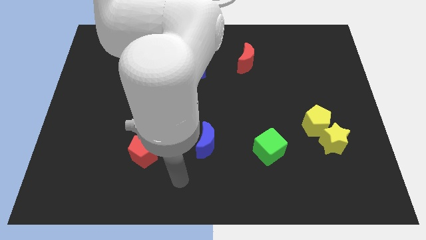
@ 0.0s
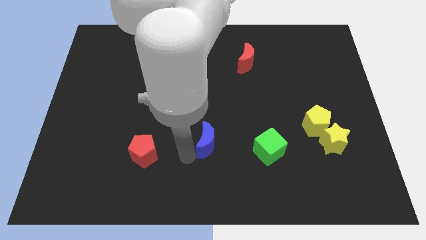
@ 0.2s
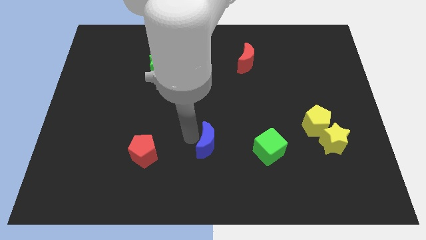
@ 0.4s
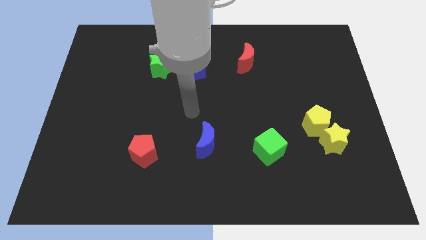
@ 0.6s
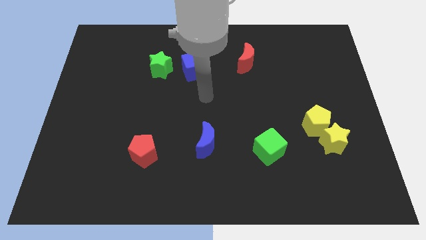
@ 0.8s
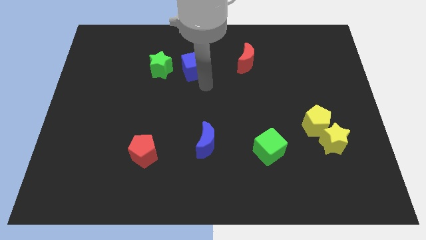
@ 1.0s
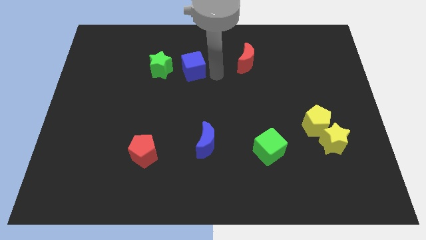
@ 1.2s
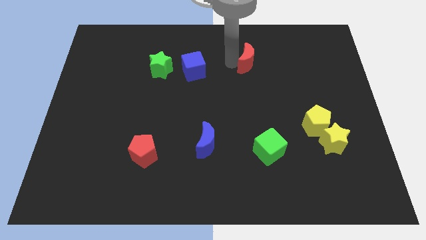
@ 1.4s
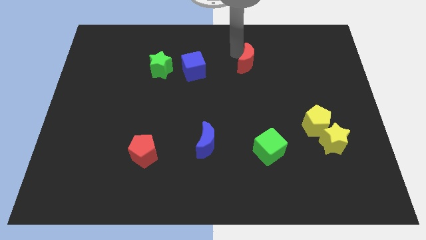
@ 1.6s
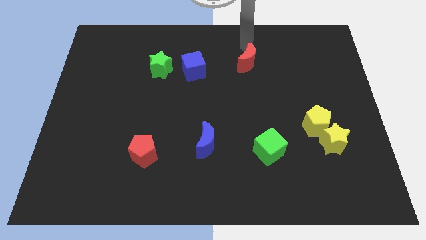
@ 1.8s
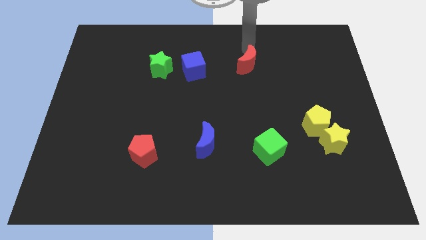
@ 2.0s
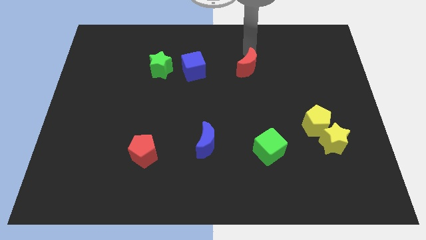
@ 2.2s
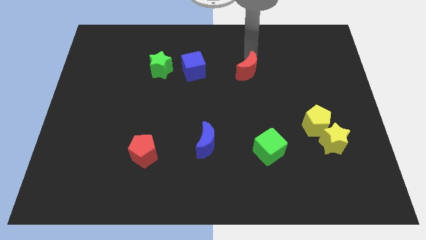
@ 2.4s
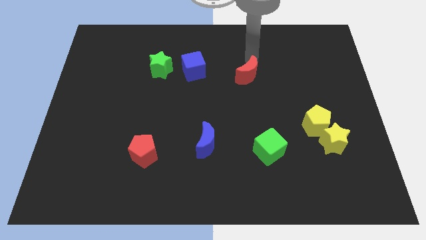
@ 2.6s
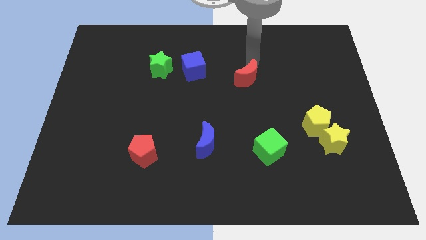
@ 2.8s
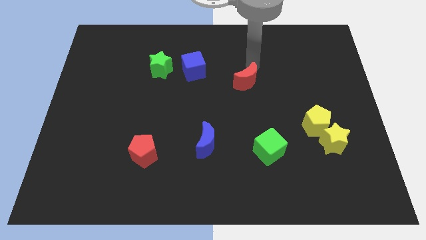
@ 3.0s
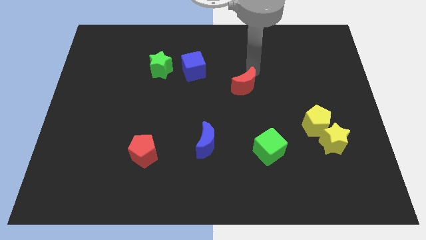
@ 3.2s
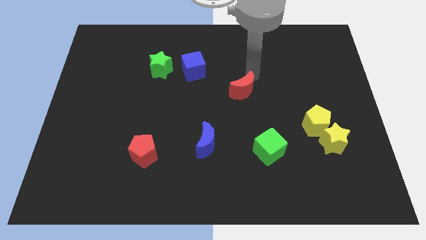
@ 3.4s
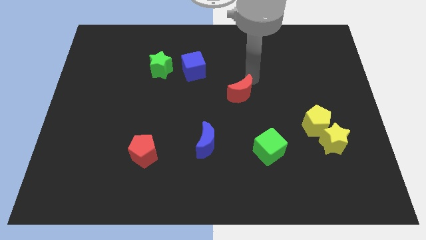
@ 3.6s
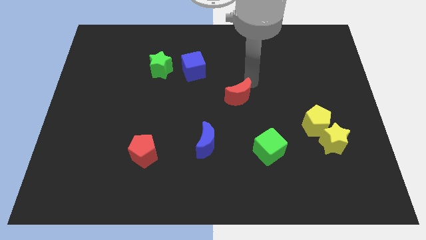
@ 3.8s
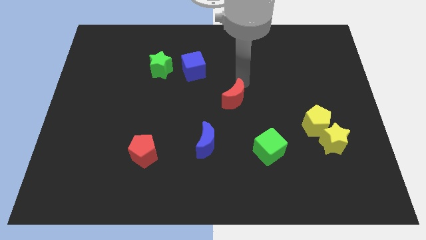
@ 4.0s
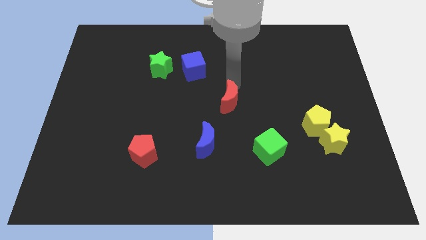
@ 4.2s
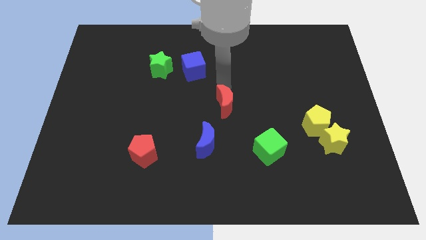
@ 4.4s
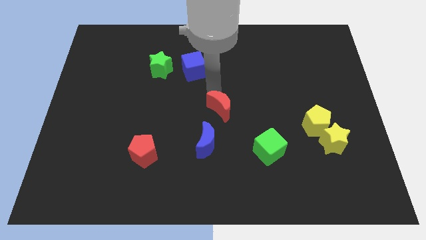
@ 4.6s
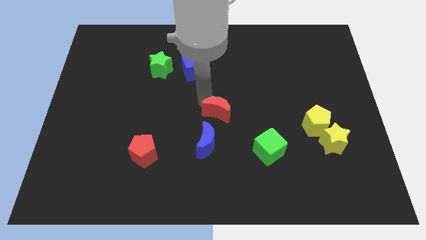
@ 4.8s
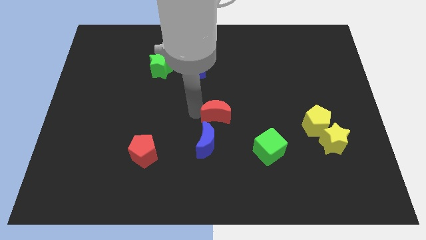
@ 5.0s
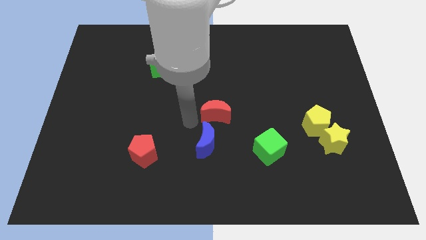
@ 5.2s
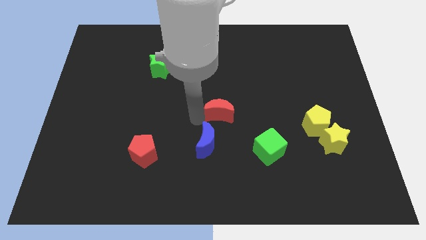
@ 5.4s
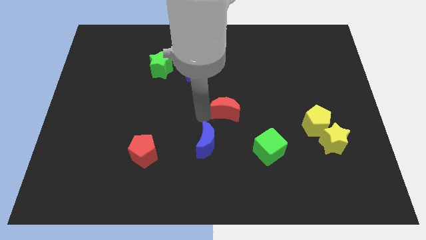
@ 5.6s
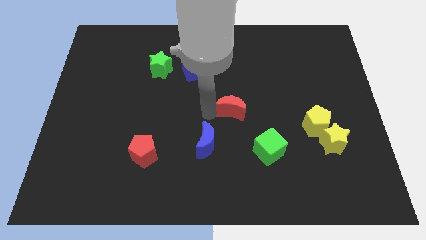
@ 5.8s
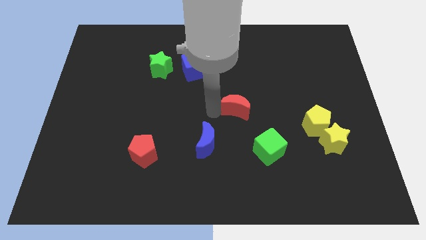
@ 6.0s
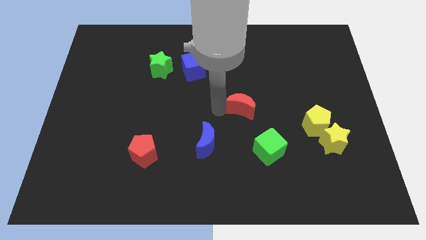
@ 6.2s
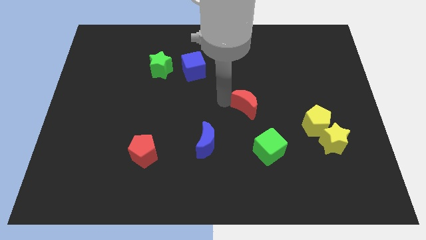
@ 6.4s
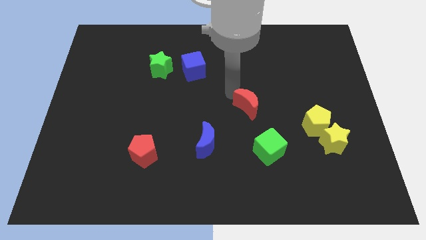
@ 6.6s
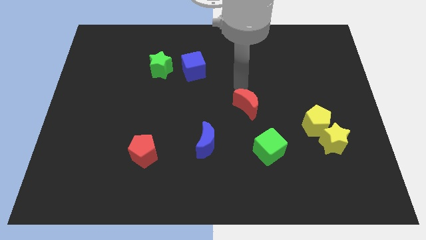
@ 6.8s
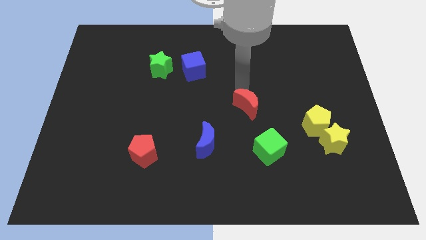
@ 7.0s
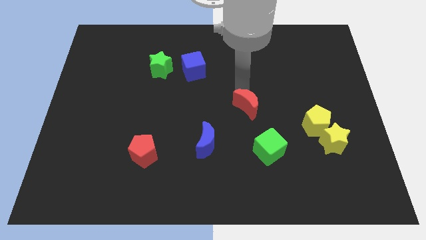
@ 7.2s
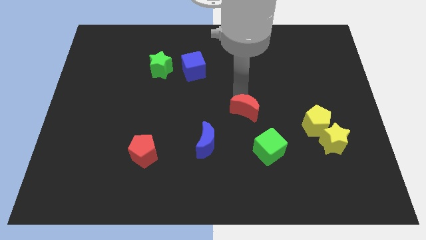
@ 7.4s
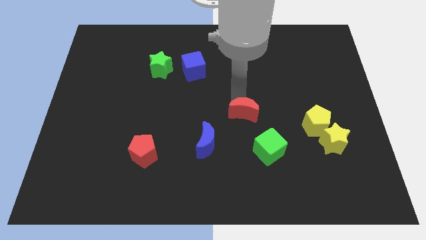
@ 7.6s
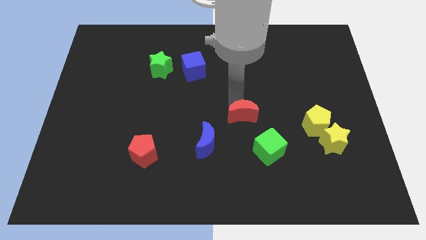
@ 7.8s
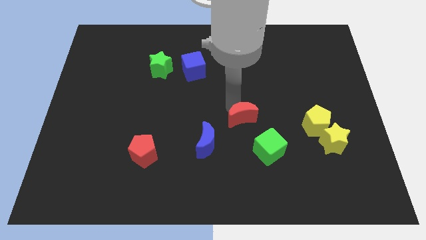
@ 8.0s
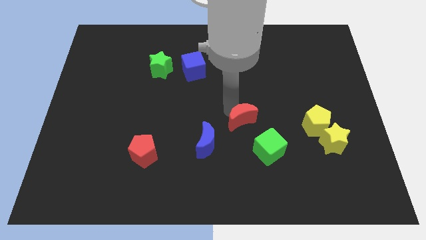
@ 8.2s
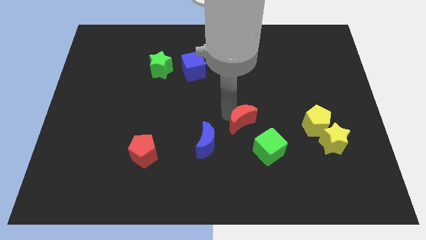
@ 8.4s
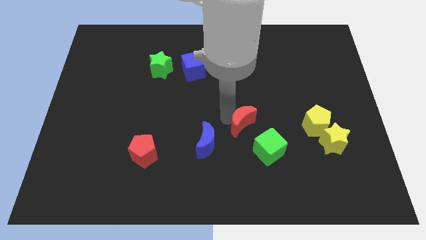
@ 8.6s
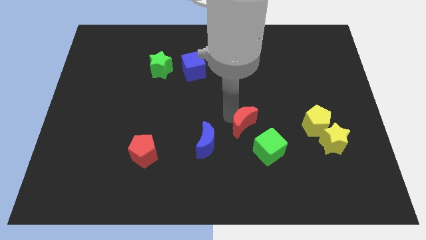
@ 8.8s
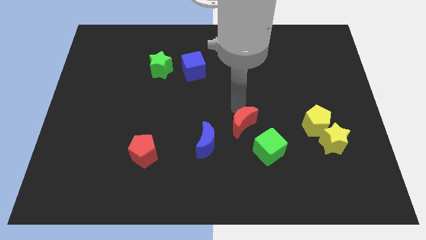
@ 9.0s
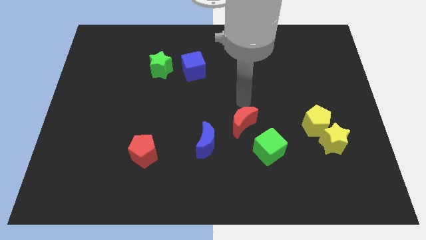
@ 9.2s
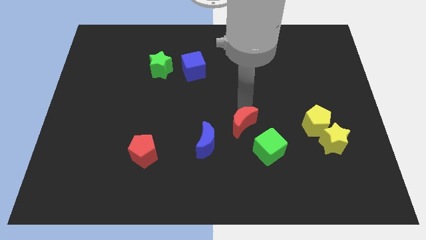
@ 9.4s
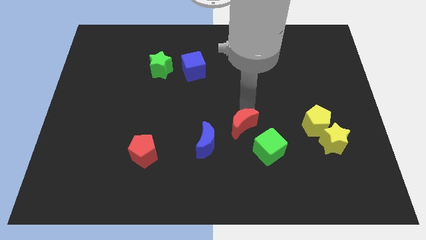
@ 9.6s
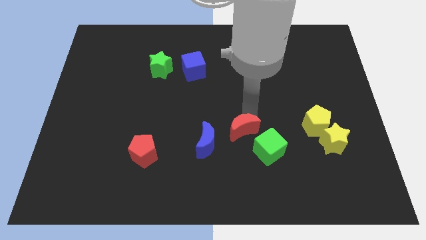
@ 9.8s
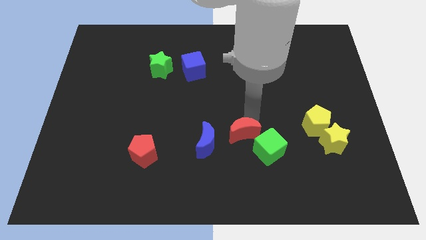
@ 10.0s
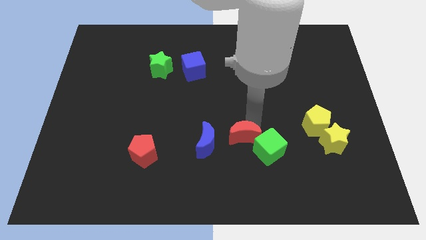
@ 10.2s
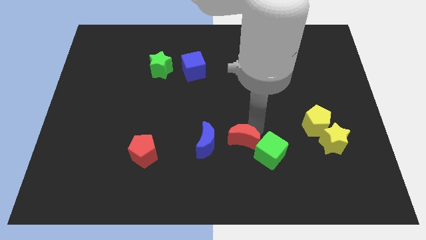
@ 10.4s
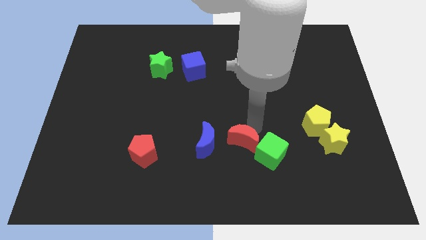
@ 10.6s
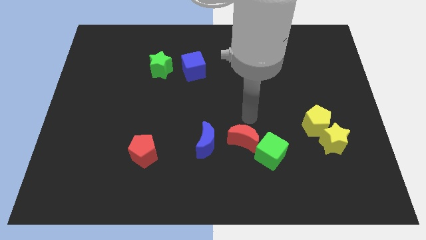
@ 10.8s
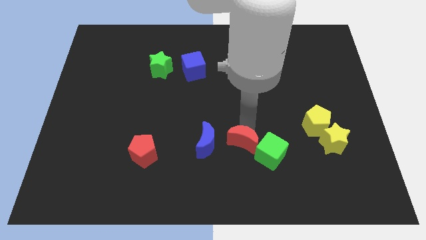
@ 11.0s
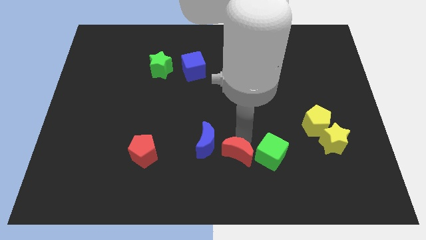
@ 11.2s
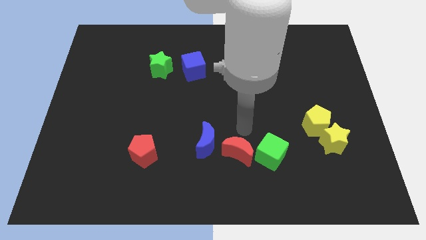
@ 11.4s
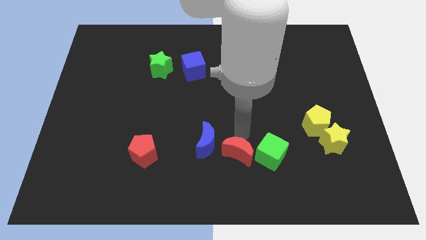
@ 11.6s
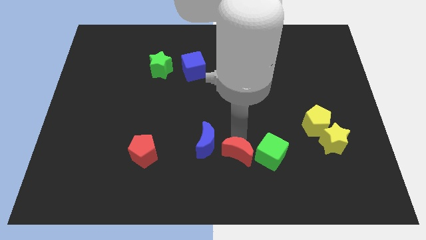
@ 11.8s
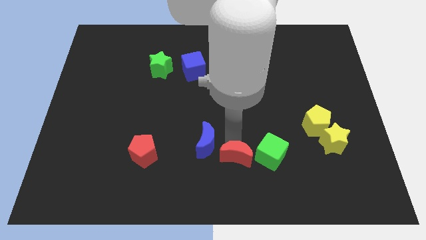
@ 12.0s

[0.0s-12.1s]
slide the red moon to the bottom

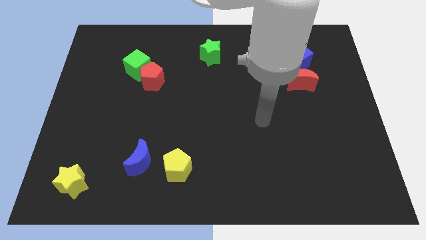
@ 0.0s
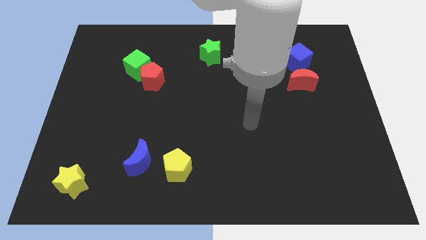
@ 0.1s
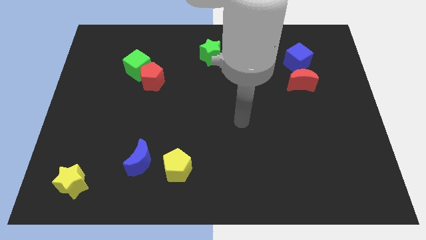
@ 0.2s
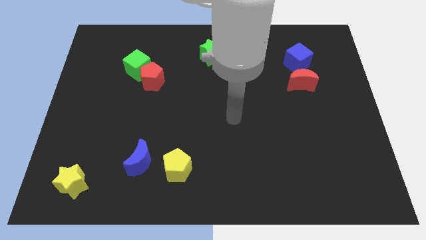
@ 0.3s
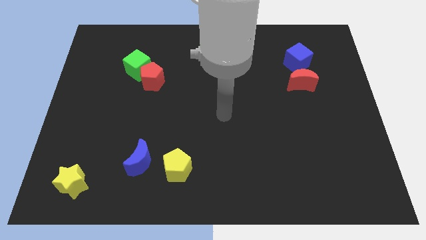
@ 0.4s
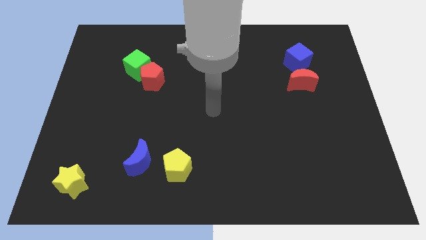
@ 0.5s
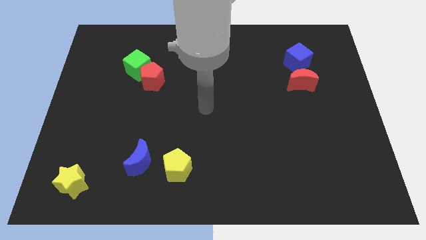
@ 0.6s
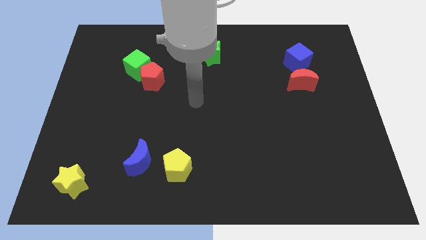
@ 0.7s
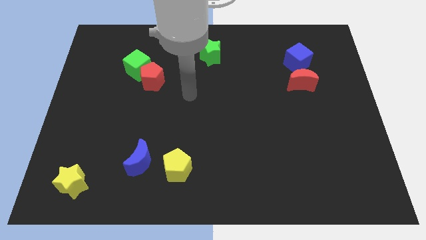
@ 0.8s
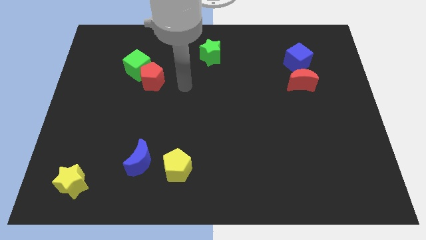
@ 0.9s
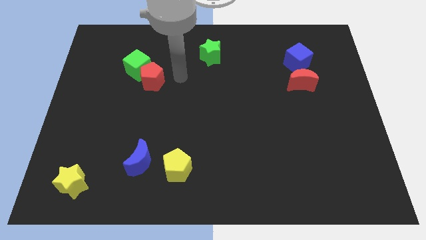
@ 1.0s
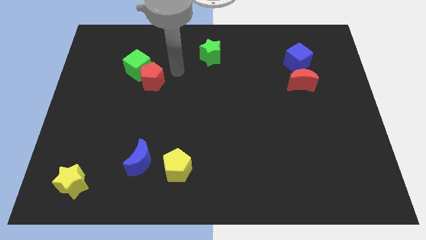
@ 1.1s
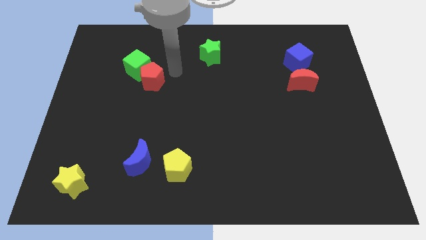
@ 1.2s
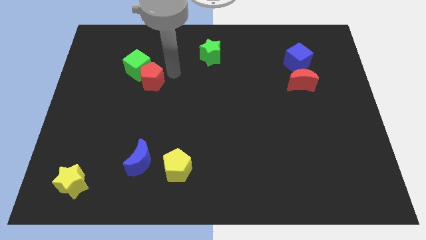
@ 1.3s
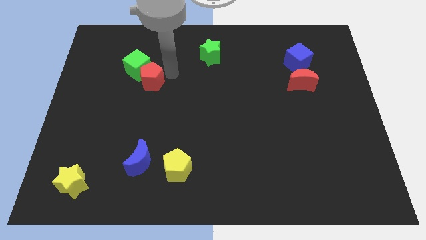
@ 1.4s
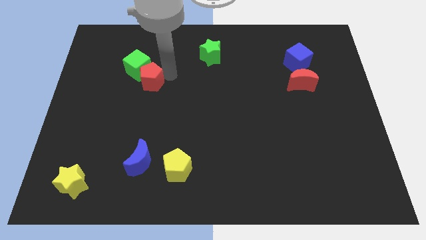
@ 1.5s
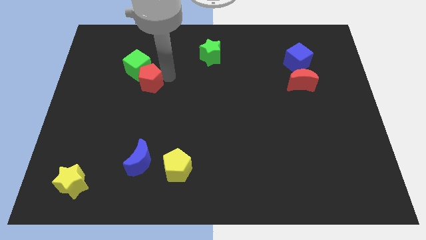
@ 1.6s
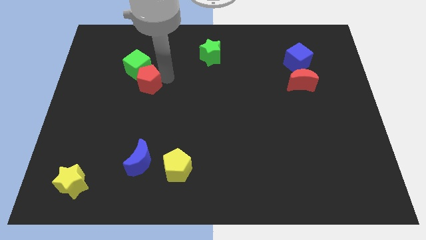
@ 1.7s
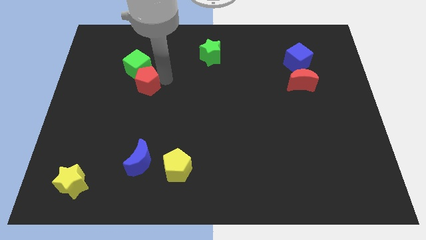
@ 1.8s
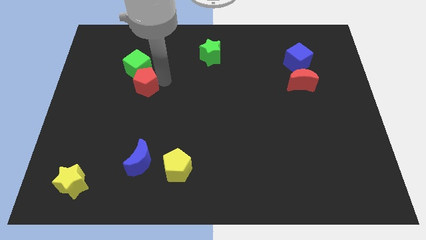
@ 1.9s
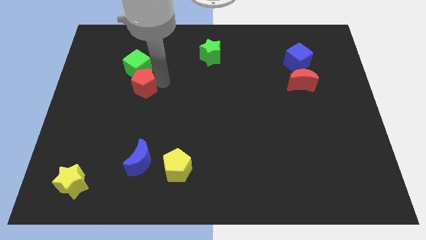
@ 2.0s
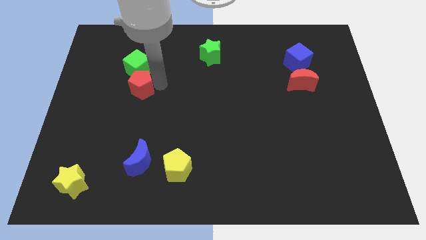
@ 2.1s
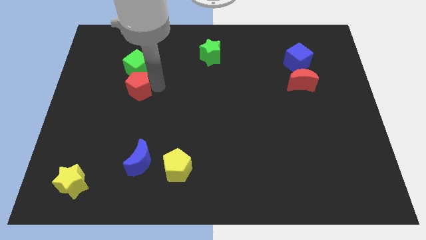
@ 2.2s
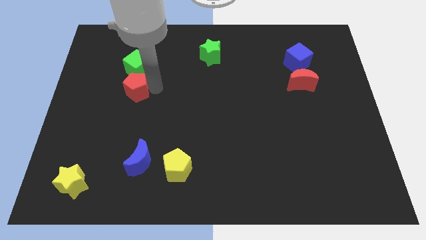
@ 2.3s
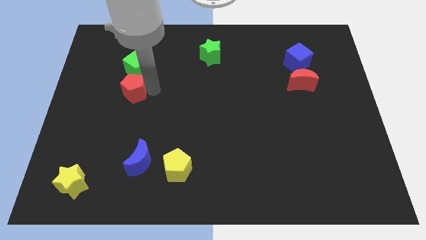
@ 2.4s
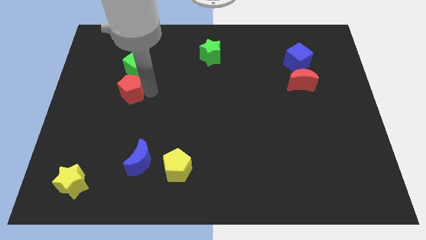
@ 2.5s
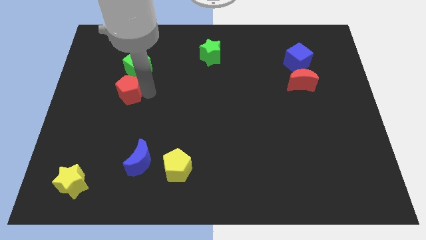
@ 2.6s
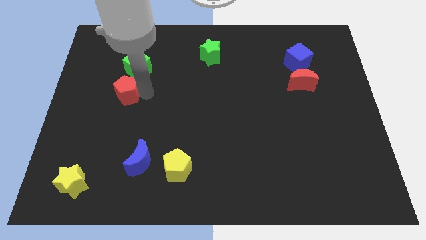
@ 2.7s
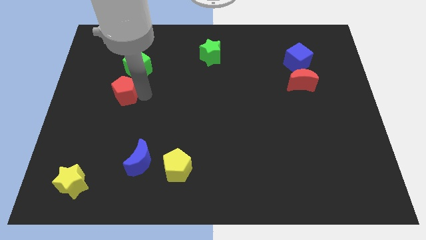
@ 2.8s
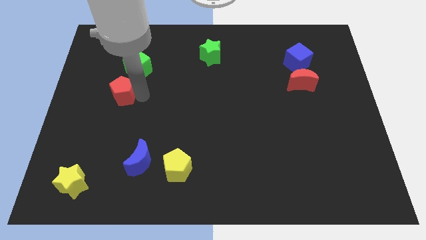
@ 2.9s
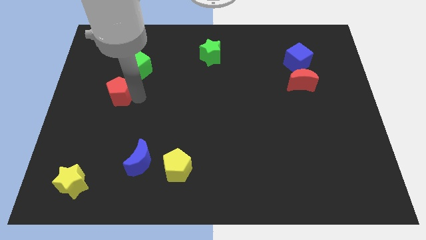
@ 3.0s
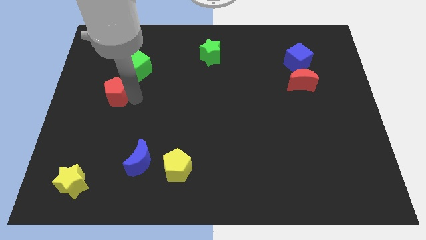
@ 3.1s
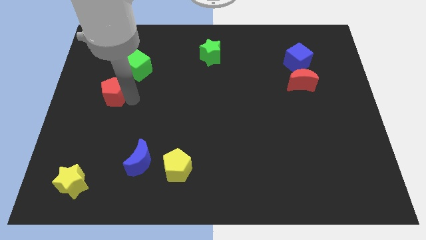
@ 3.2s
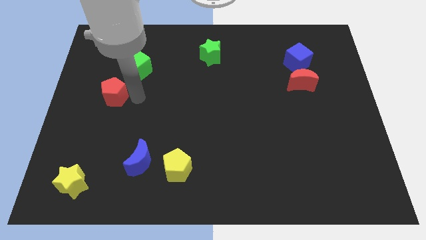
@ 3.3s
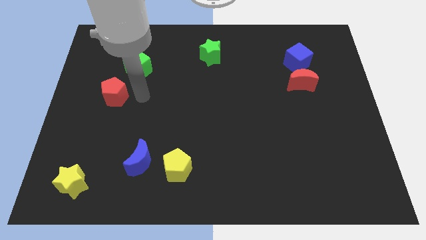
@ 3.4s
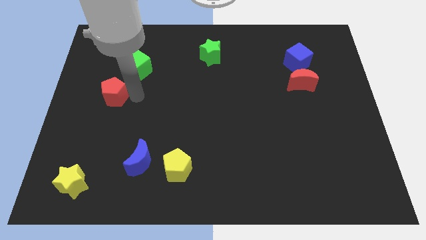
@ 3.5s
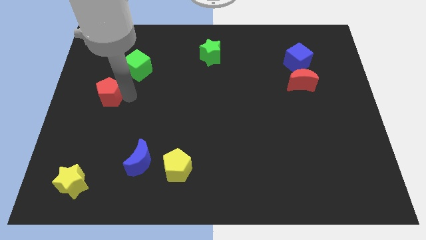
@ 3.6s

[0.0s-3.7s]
push the red pentagon to the left side
